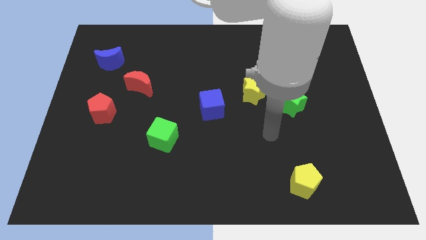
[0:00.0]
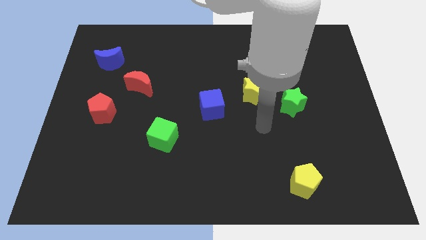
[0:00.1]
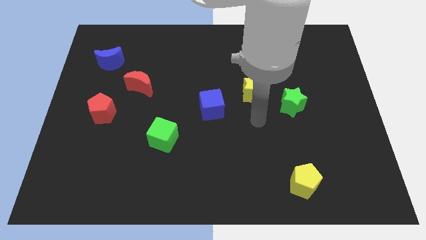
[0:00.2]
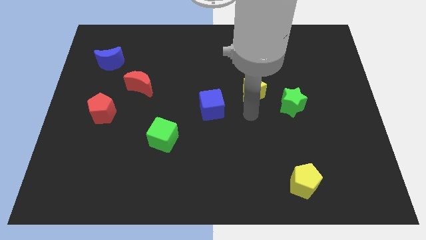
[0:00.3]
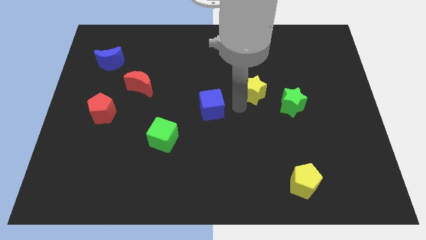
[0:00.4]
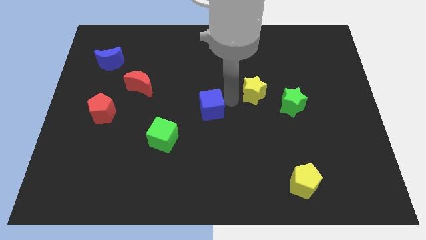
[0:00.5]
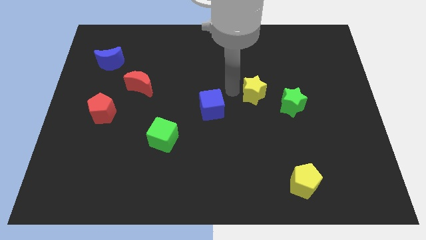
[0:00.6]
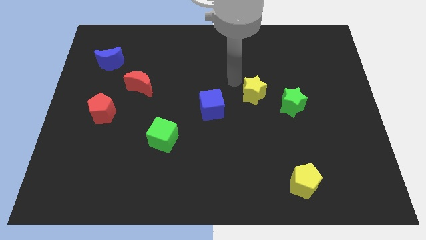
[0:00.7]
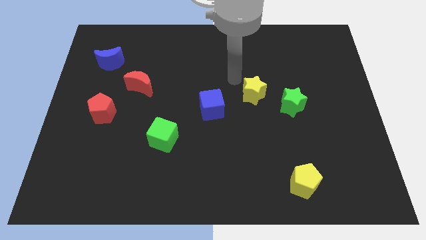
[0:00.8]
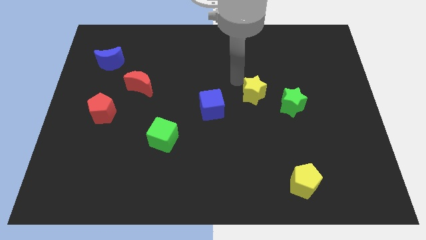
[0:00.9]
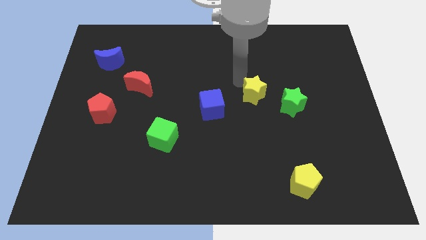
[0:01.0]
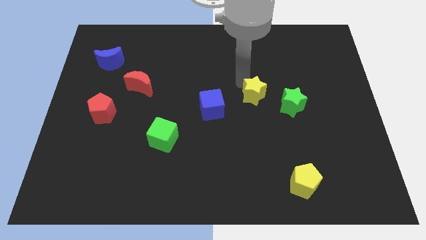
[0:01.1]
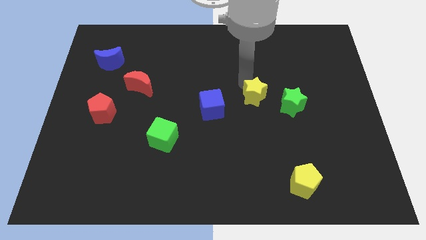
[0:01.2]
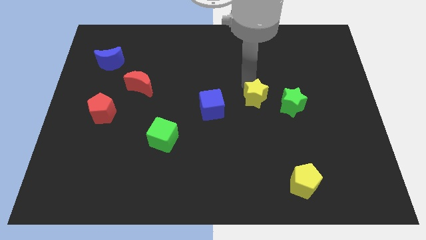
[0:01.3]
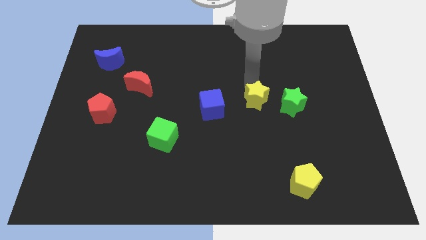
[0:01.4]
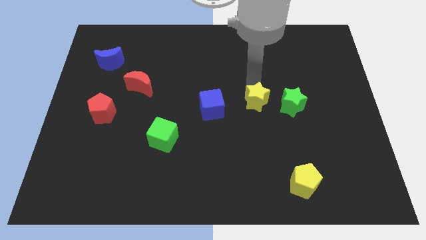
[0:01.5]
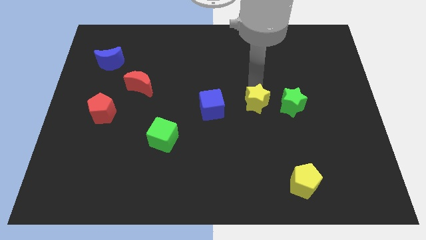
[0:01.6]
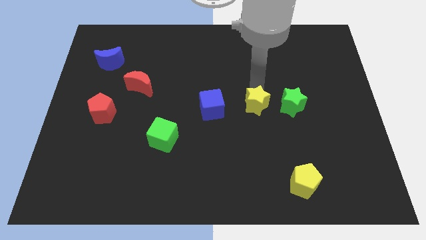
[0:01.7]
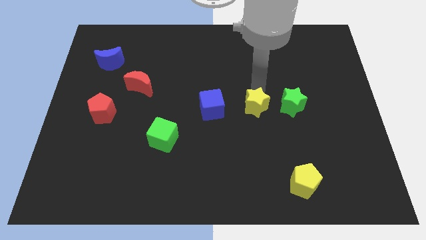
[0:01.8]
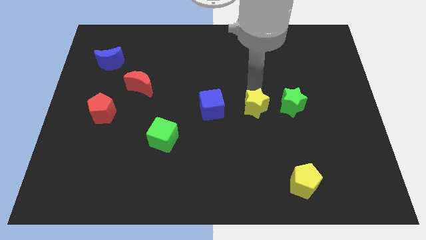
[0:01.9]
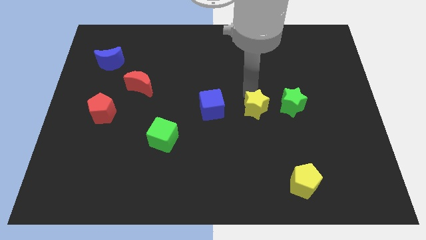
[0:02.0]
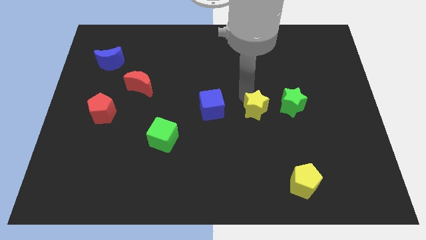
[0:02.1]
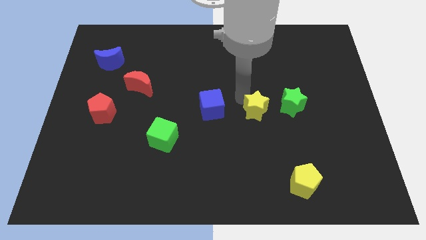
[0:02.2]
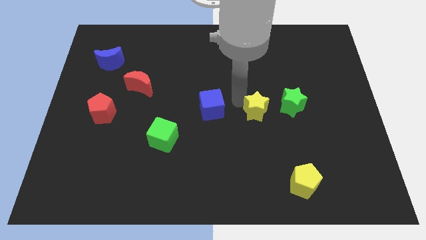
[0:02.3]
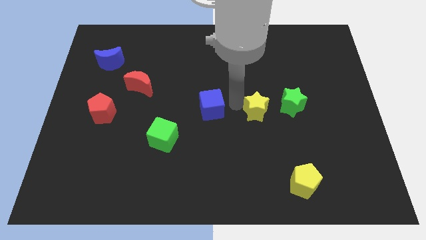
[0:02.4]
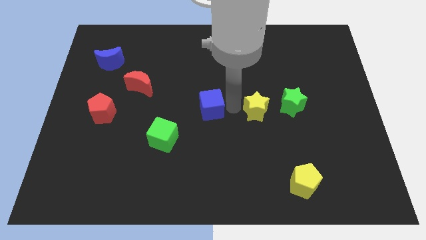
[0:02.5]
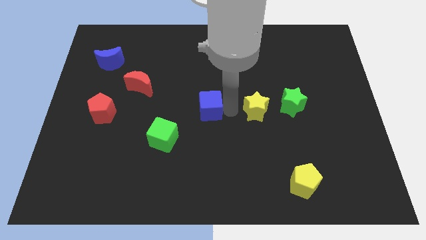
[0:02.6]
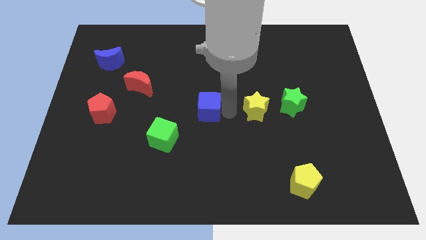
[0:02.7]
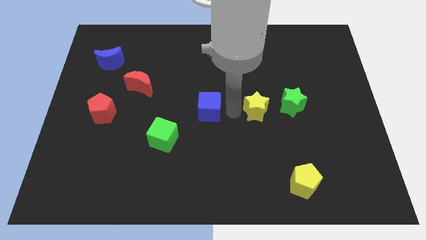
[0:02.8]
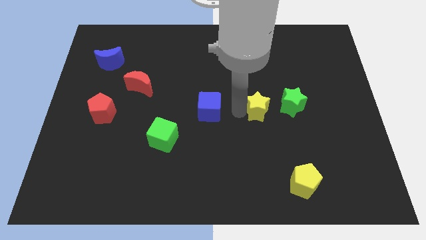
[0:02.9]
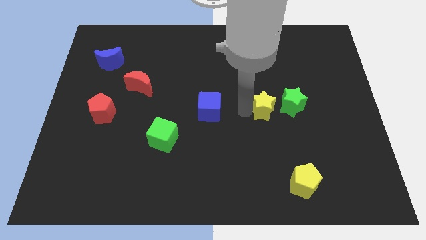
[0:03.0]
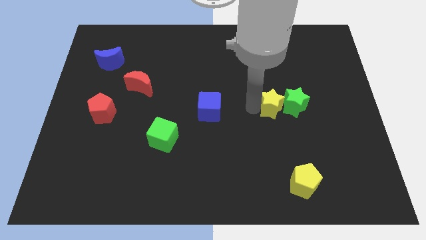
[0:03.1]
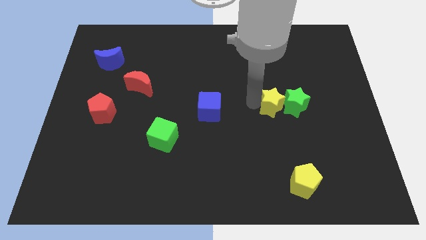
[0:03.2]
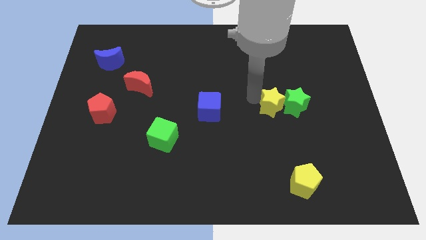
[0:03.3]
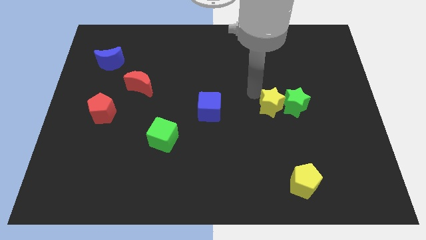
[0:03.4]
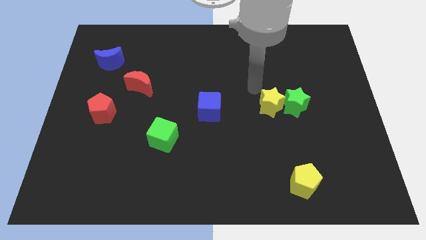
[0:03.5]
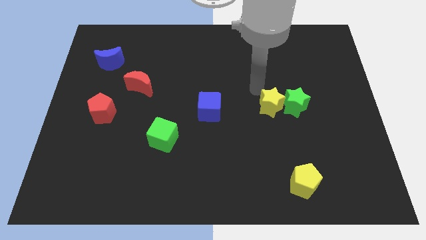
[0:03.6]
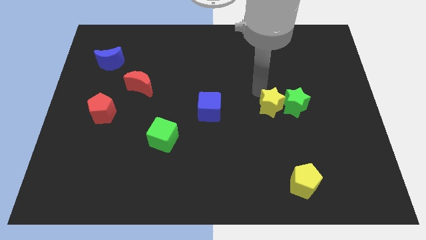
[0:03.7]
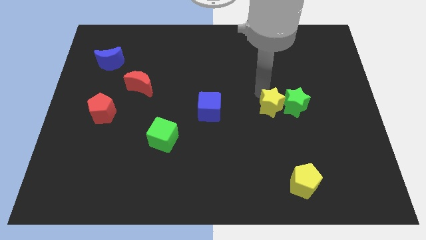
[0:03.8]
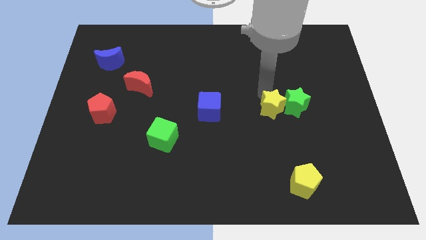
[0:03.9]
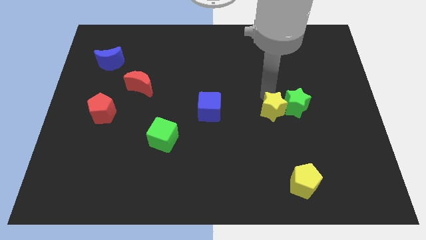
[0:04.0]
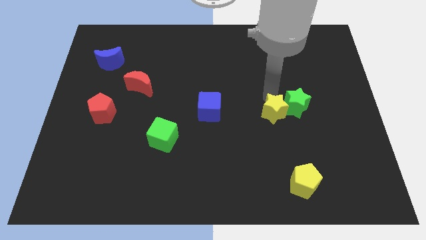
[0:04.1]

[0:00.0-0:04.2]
slightly push the yellow star diagonally down and to the right

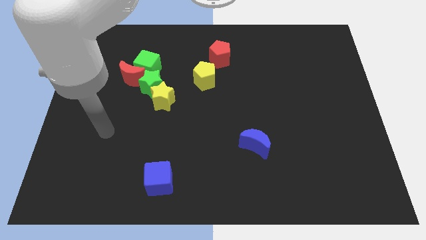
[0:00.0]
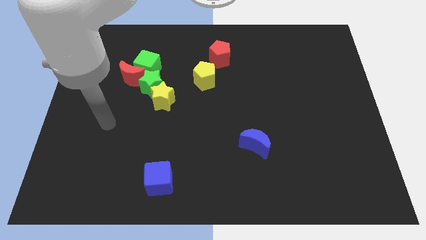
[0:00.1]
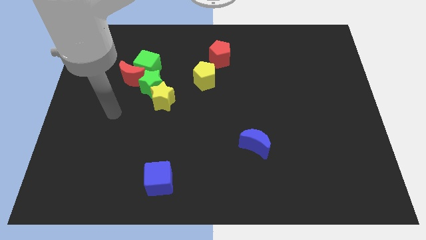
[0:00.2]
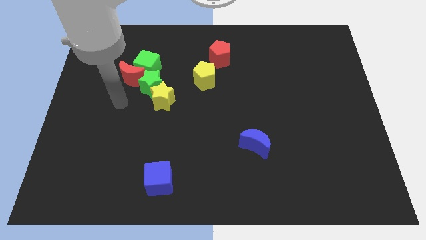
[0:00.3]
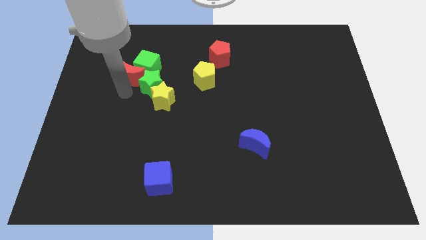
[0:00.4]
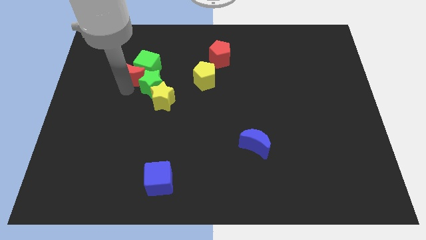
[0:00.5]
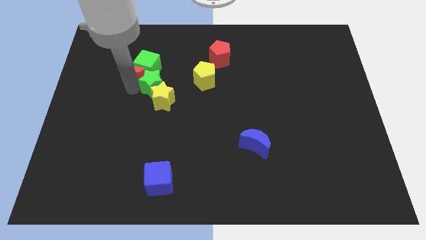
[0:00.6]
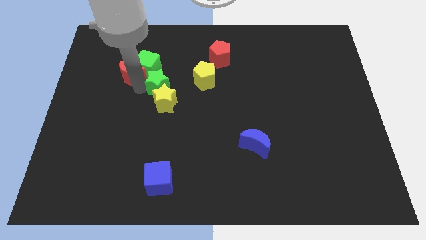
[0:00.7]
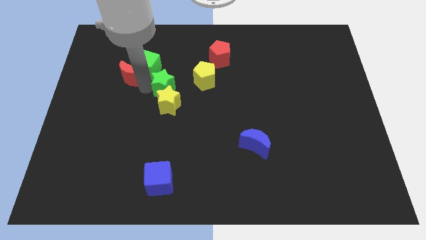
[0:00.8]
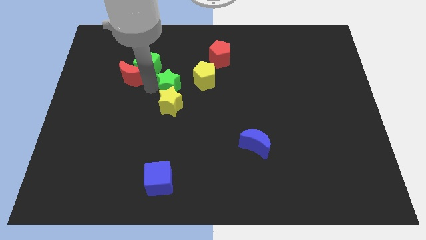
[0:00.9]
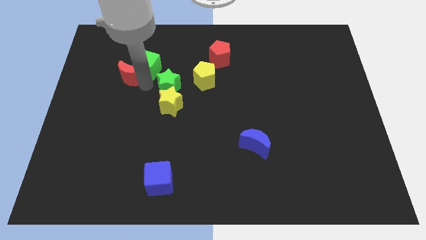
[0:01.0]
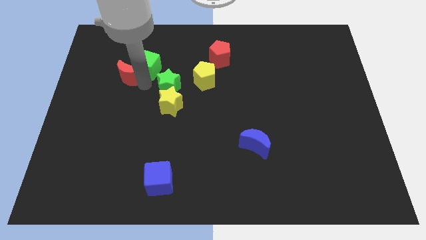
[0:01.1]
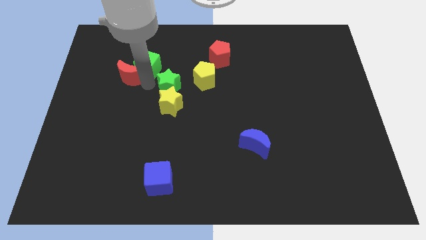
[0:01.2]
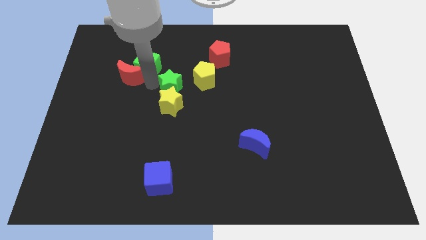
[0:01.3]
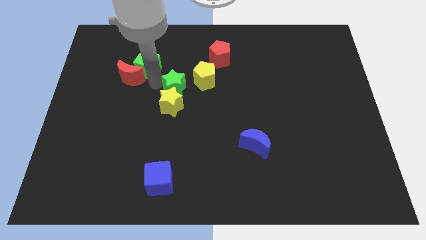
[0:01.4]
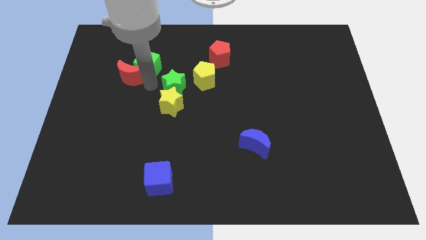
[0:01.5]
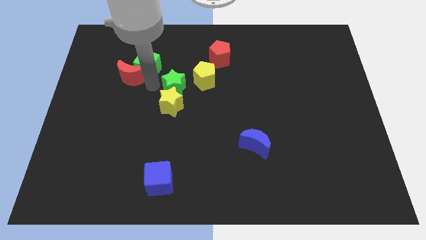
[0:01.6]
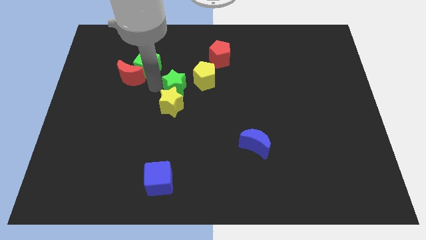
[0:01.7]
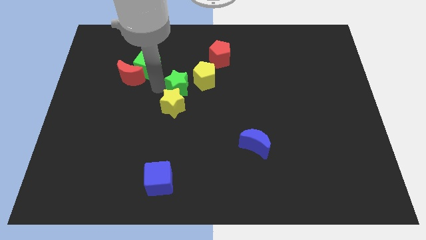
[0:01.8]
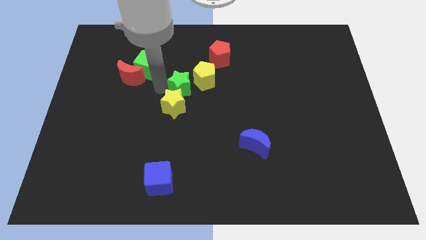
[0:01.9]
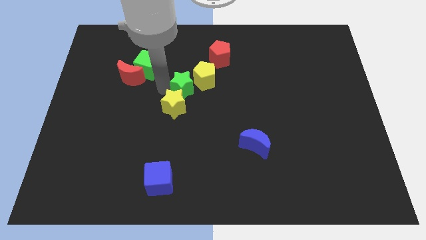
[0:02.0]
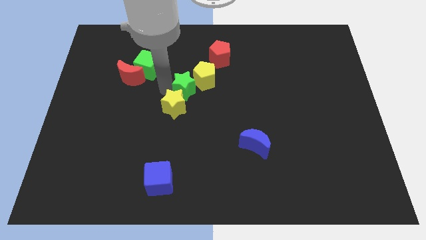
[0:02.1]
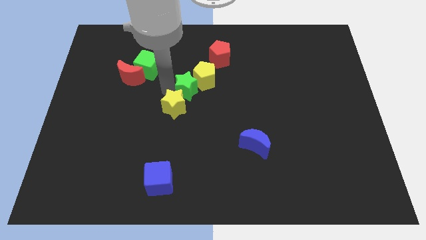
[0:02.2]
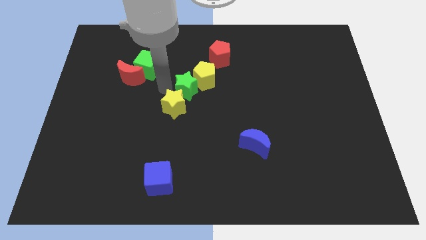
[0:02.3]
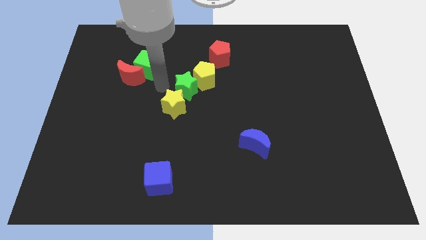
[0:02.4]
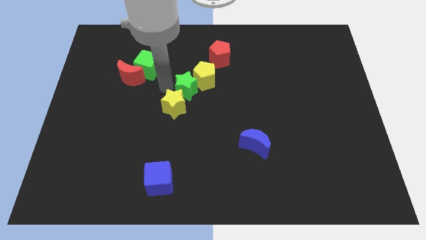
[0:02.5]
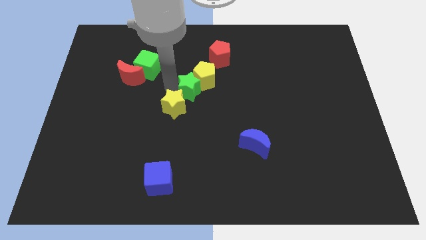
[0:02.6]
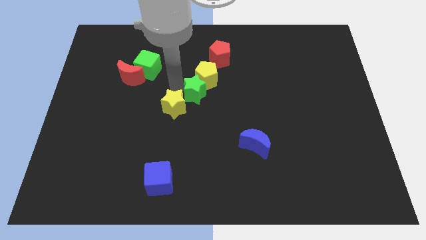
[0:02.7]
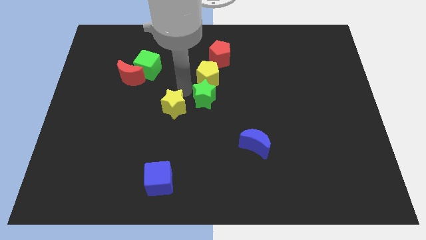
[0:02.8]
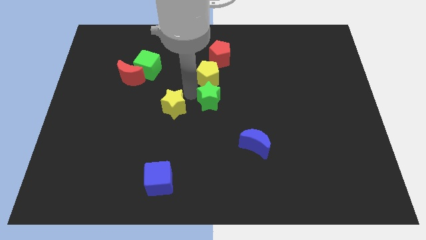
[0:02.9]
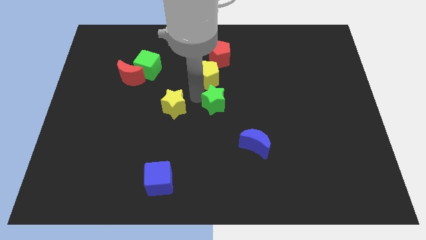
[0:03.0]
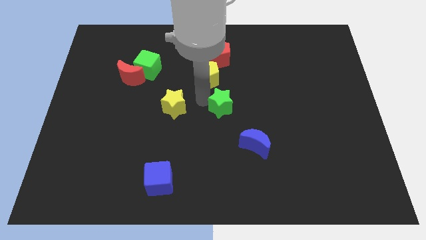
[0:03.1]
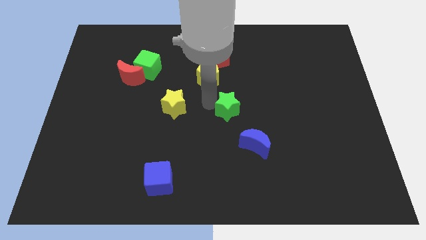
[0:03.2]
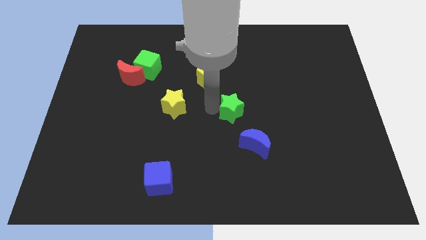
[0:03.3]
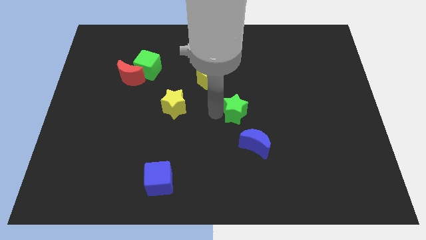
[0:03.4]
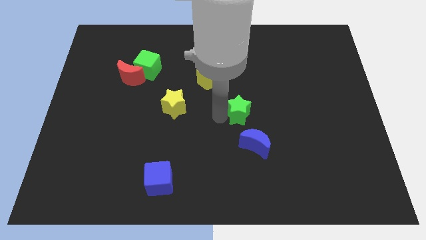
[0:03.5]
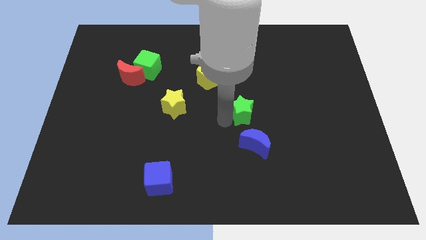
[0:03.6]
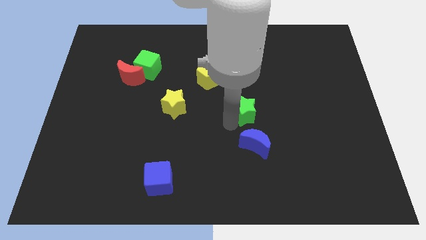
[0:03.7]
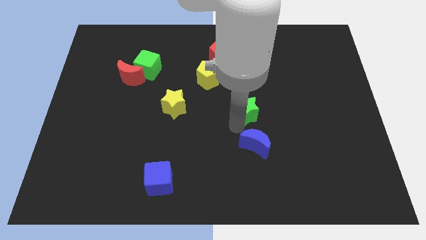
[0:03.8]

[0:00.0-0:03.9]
slide the green star right

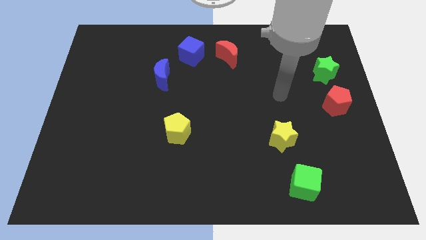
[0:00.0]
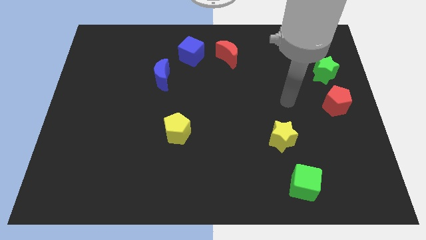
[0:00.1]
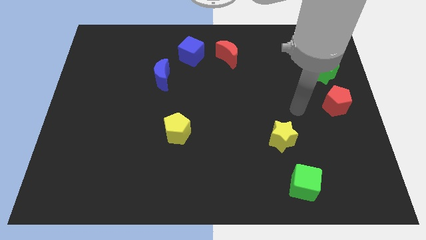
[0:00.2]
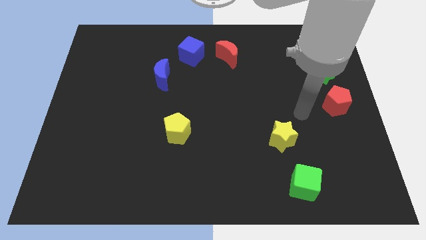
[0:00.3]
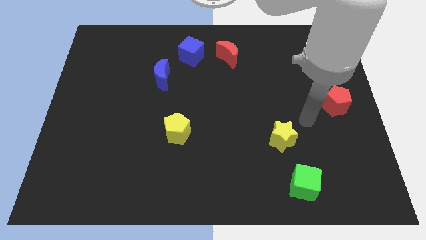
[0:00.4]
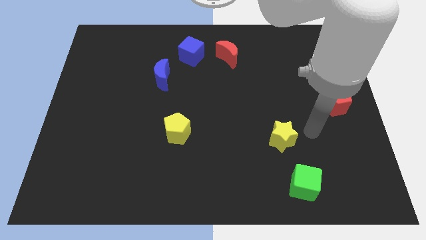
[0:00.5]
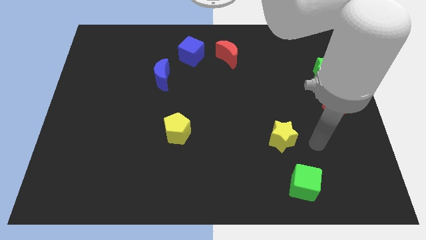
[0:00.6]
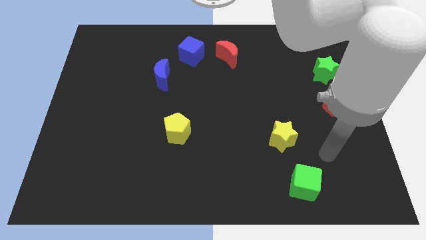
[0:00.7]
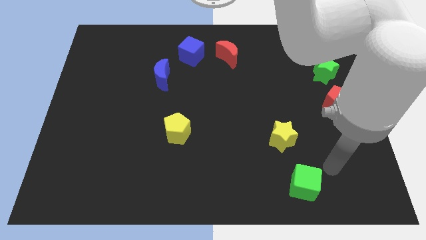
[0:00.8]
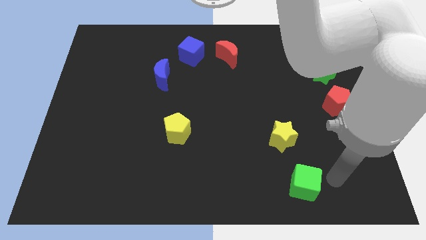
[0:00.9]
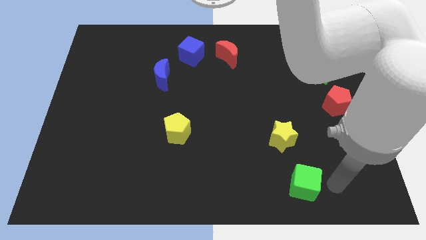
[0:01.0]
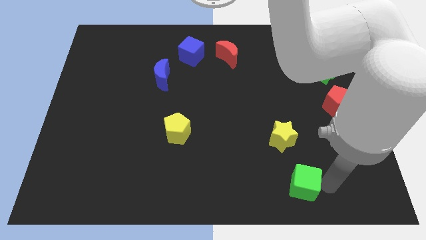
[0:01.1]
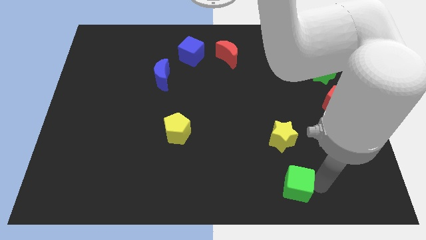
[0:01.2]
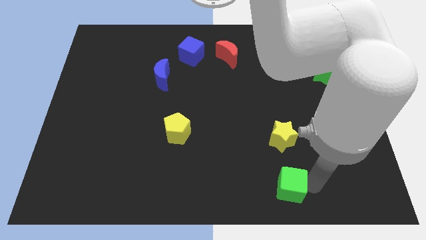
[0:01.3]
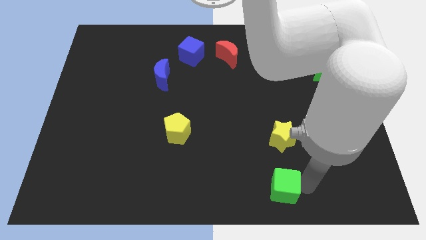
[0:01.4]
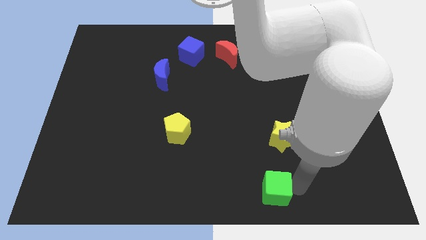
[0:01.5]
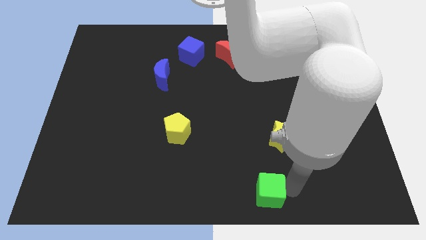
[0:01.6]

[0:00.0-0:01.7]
slightly slide the green cube left
